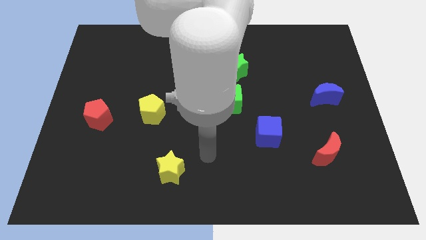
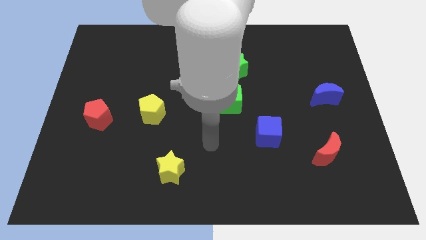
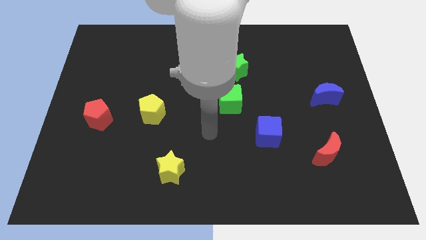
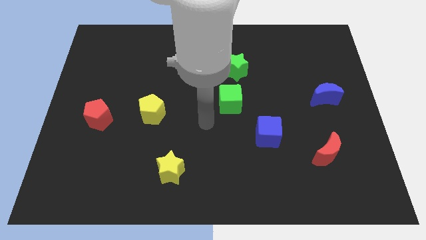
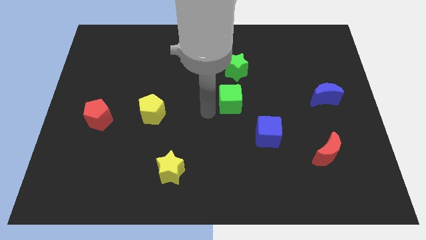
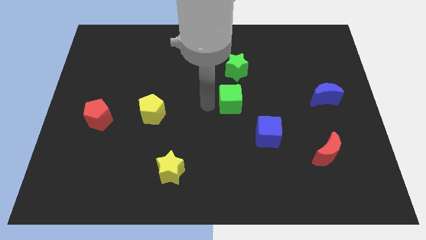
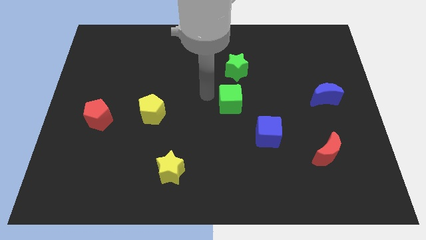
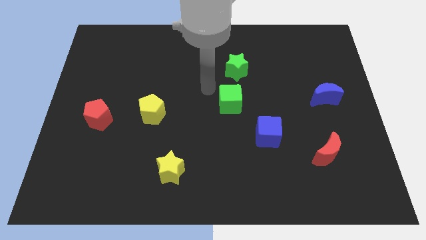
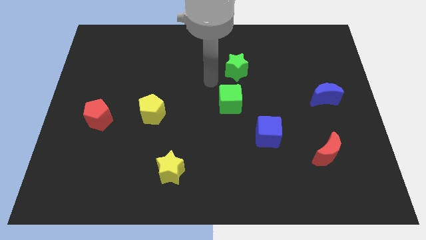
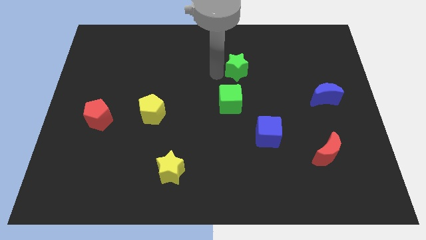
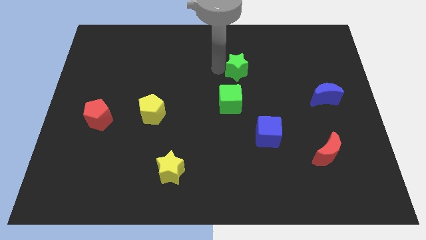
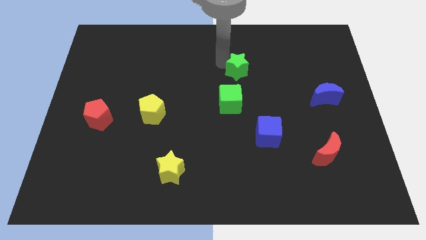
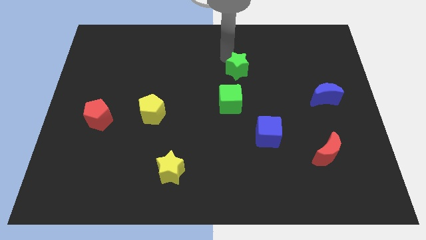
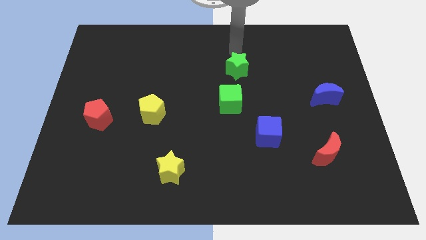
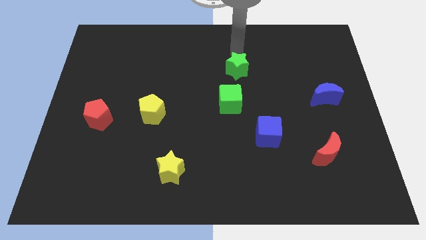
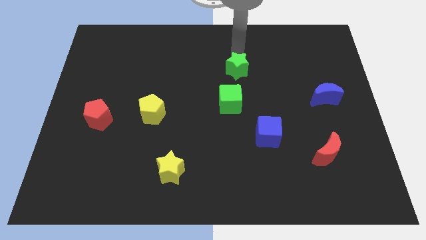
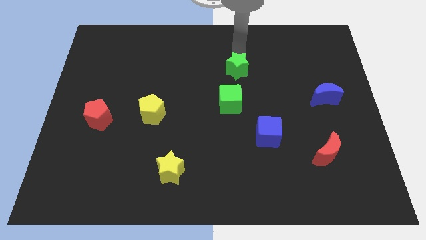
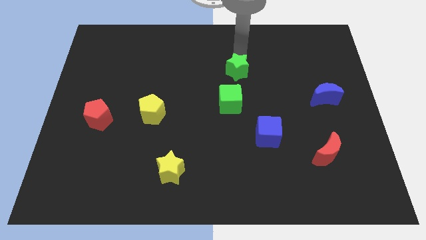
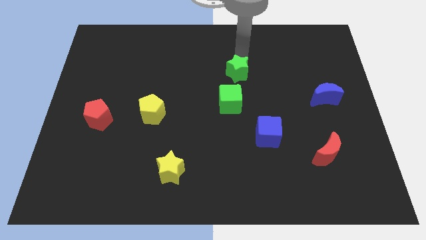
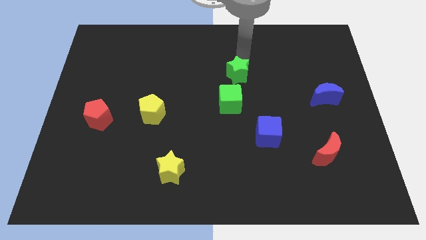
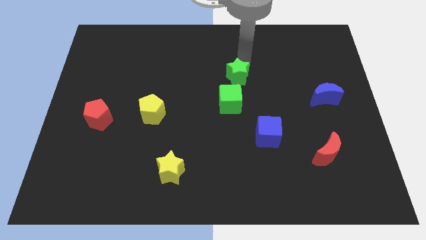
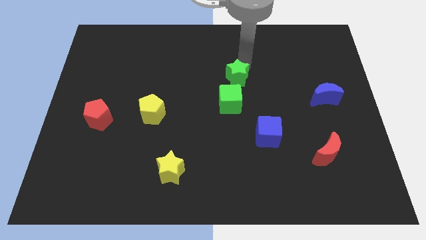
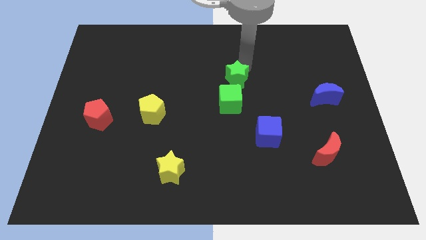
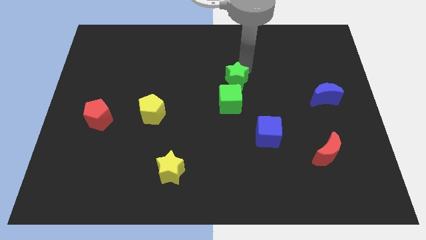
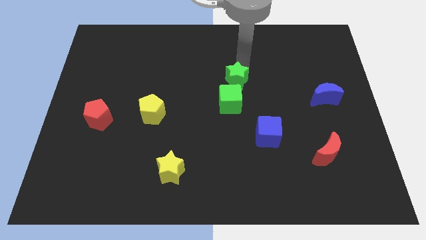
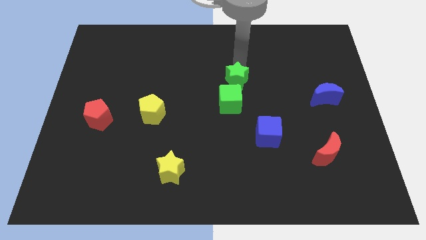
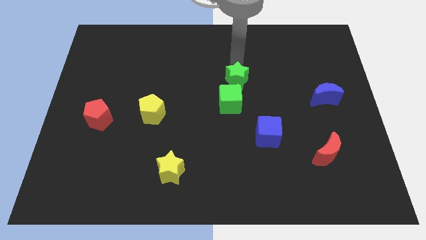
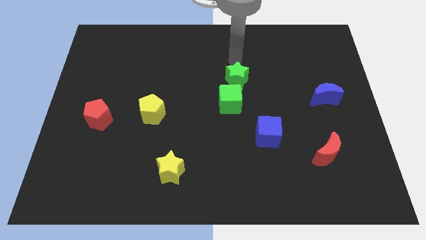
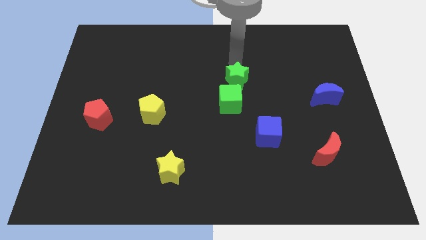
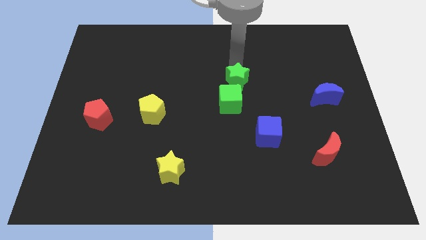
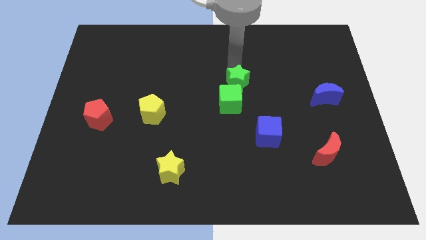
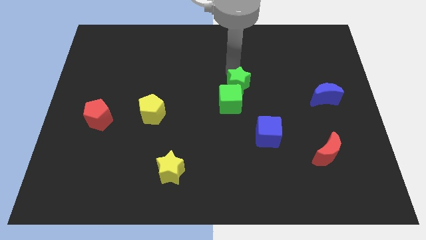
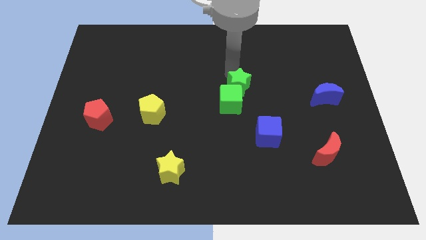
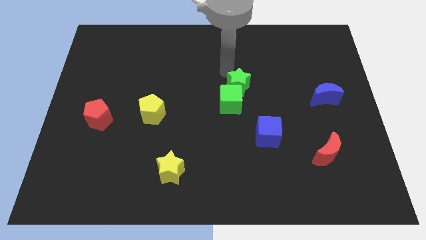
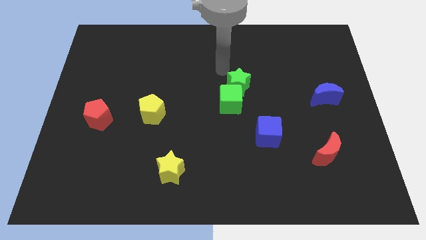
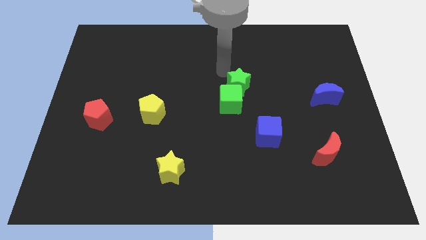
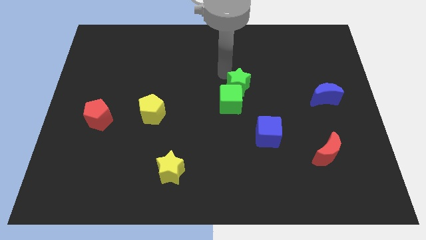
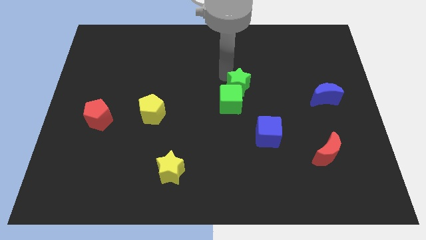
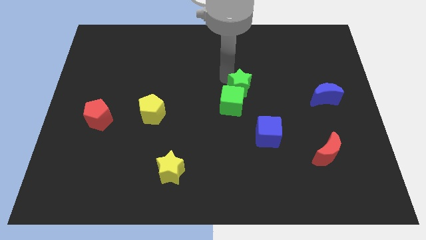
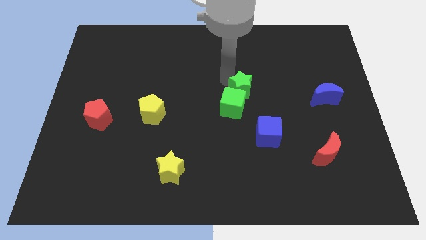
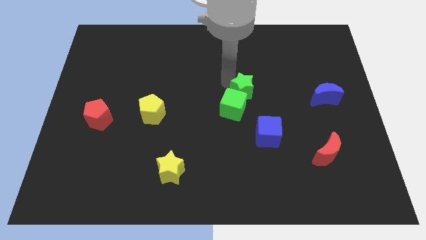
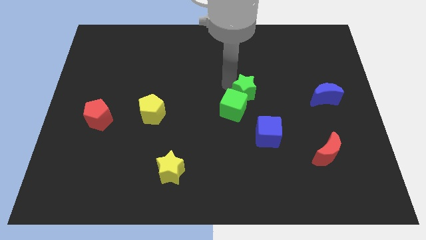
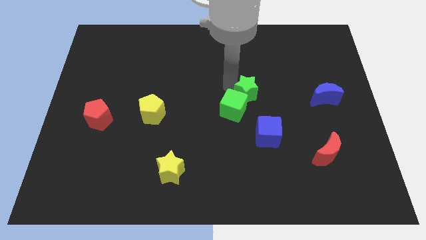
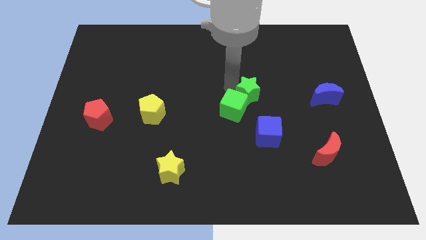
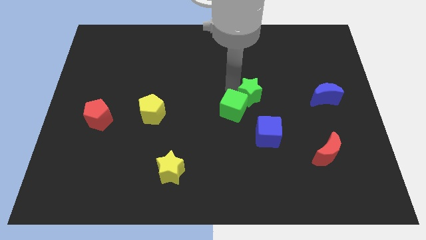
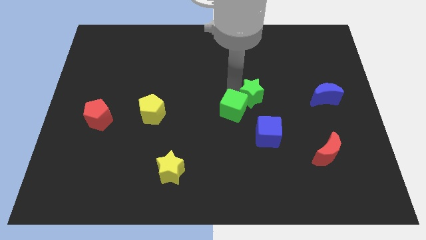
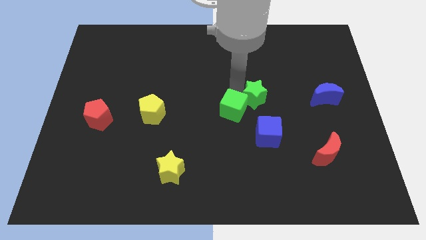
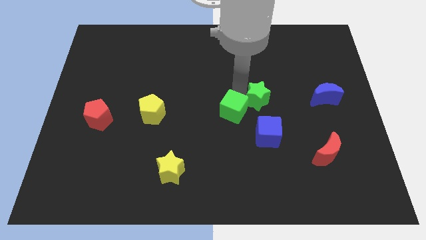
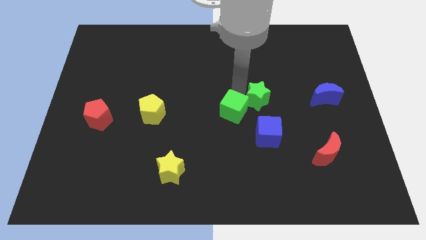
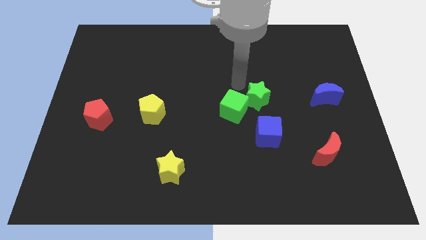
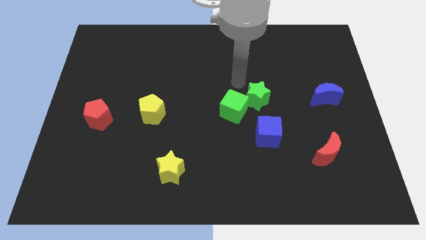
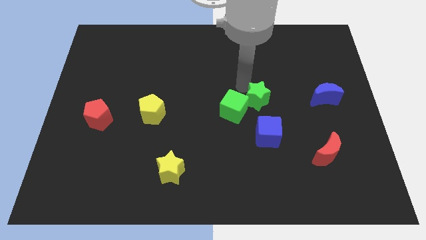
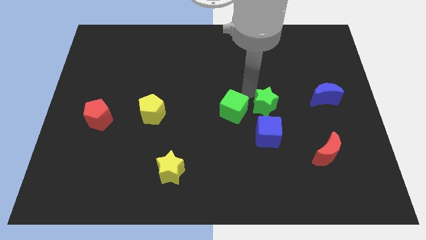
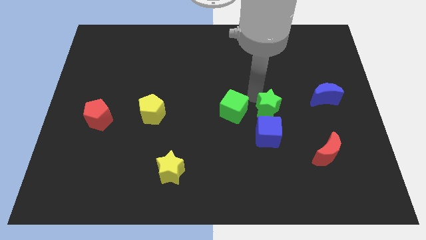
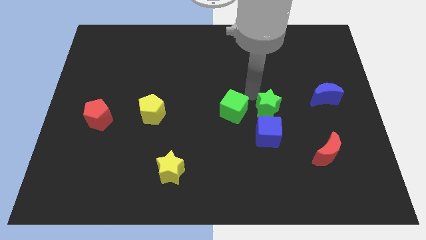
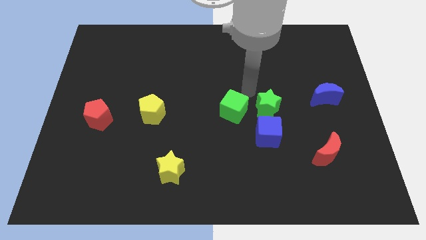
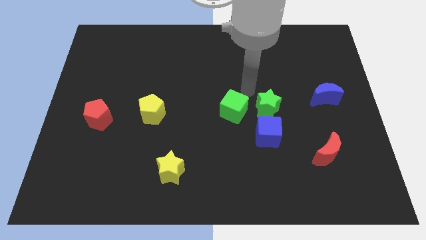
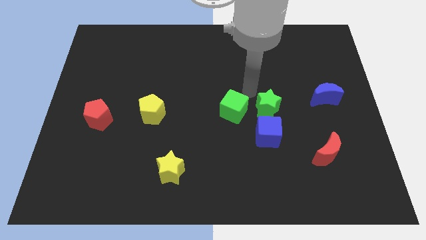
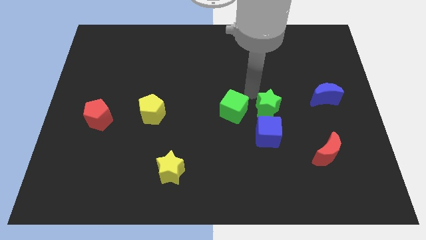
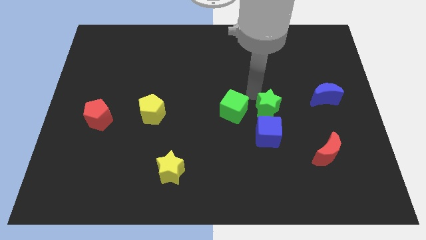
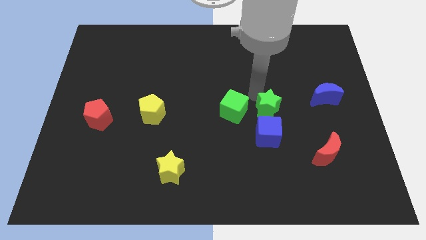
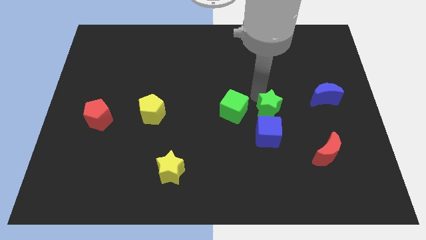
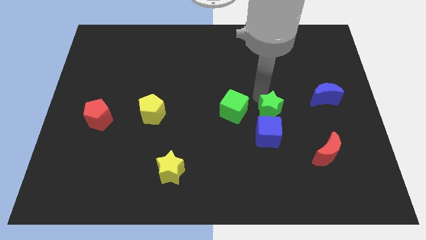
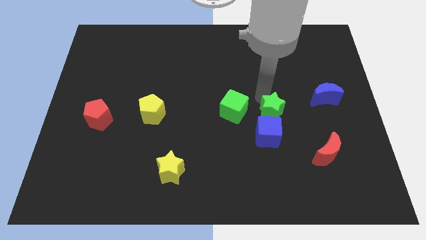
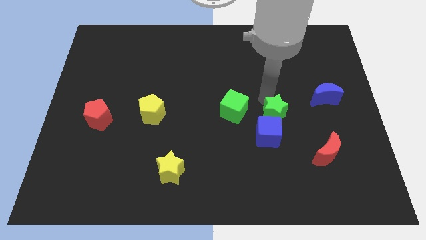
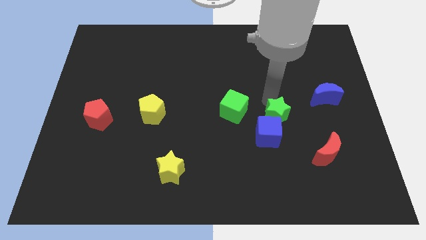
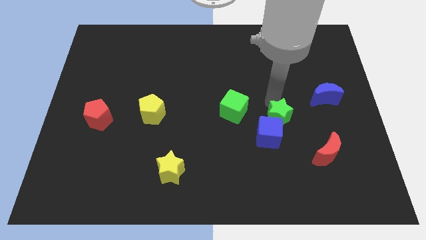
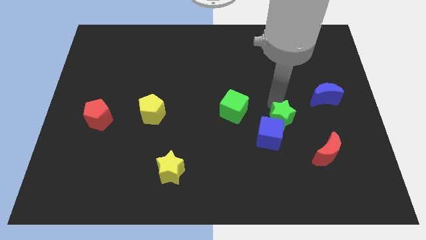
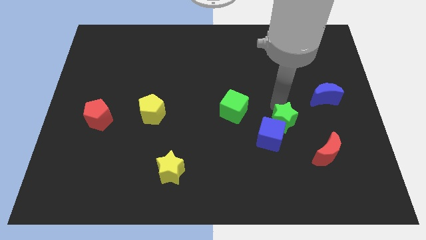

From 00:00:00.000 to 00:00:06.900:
push the green star to the top left of the red moon
